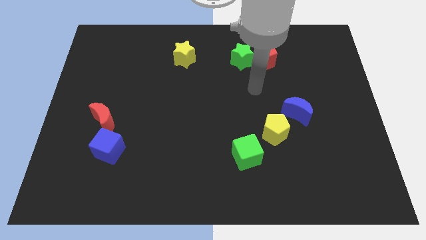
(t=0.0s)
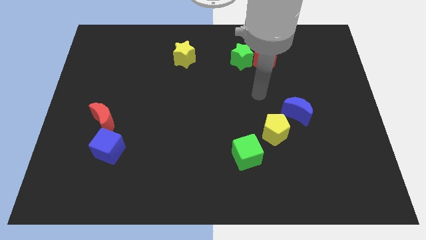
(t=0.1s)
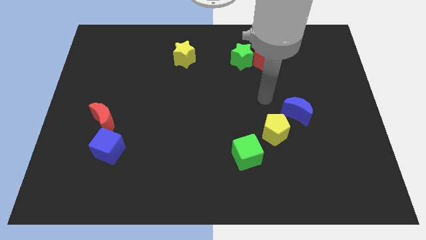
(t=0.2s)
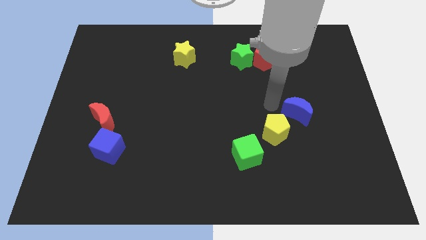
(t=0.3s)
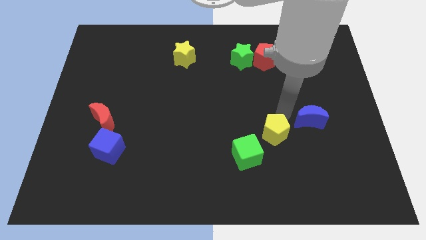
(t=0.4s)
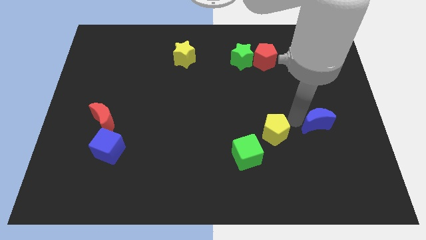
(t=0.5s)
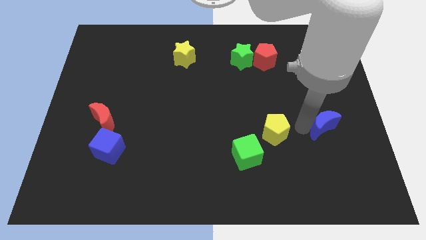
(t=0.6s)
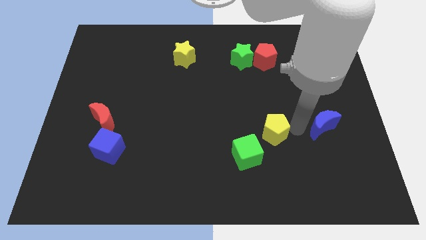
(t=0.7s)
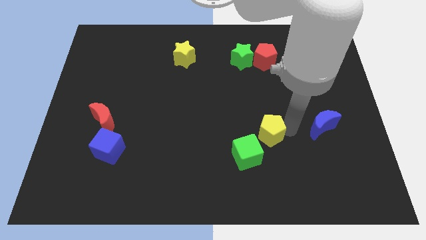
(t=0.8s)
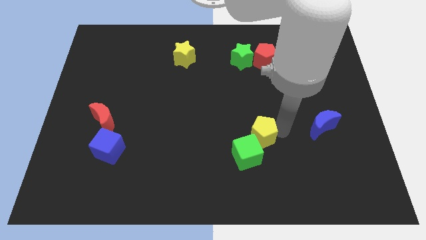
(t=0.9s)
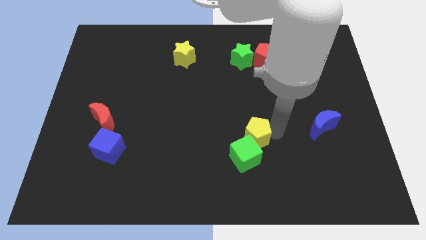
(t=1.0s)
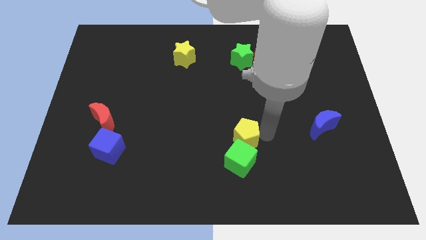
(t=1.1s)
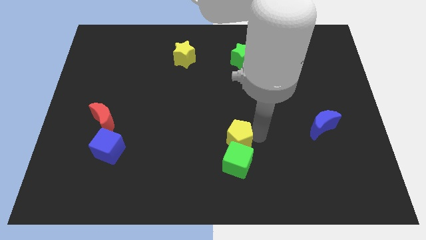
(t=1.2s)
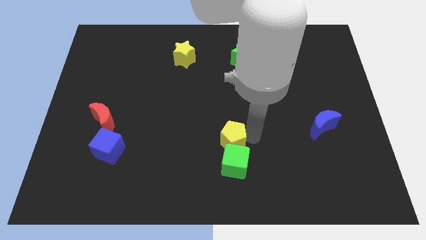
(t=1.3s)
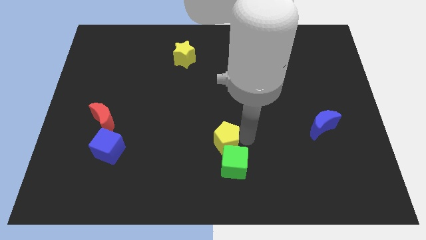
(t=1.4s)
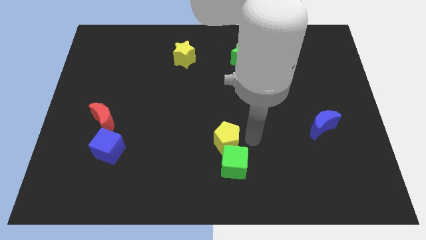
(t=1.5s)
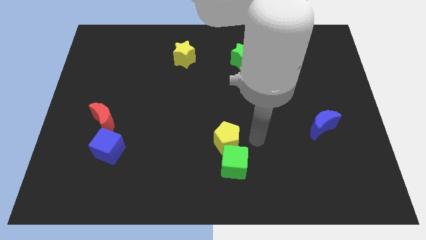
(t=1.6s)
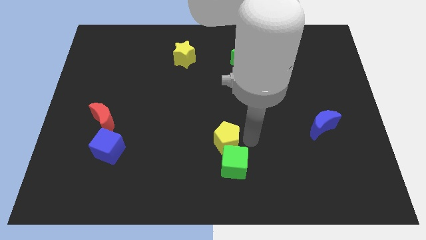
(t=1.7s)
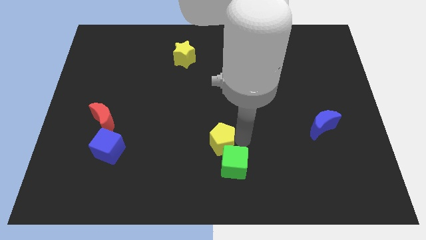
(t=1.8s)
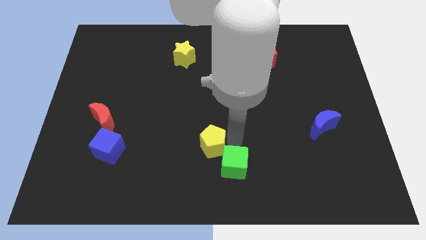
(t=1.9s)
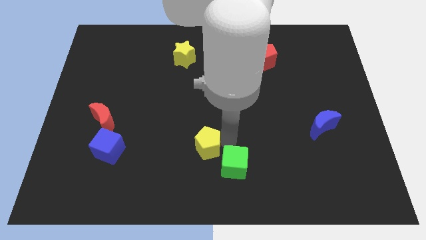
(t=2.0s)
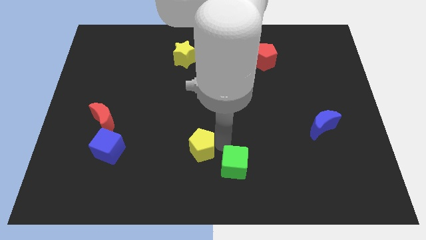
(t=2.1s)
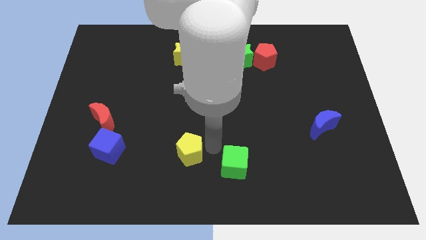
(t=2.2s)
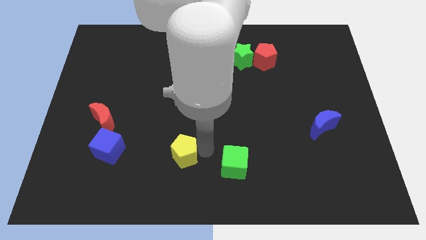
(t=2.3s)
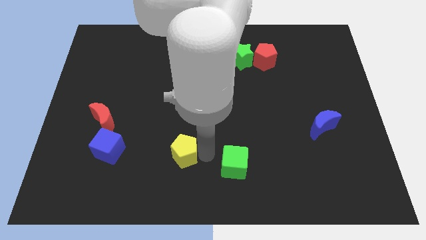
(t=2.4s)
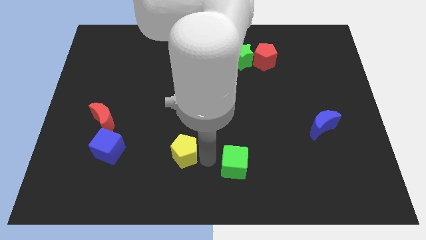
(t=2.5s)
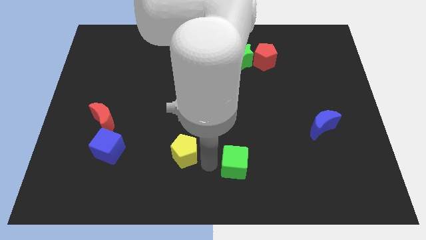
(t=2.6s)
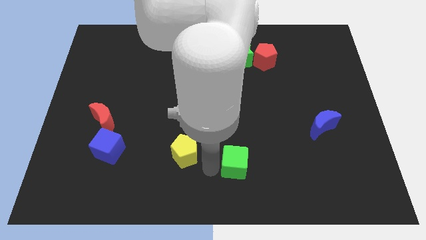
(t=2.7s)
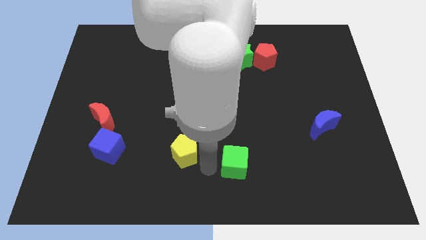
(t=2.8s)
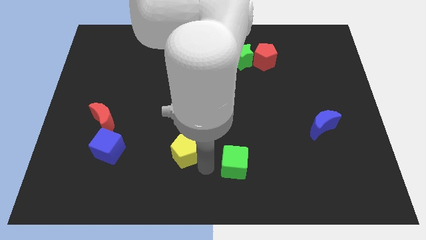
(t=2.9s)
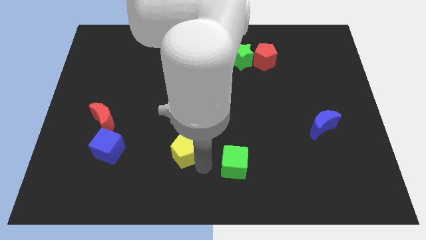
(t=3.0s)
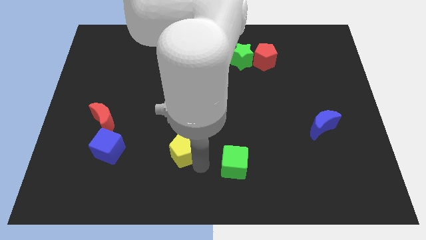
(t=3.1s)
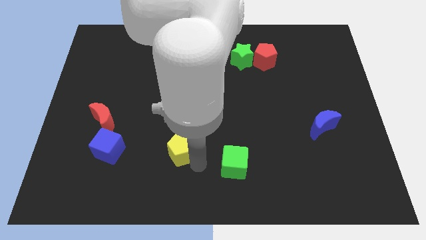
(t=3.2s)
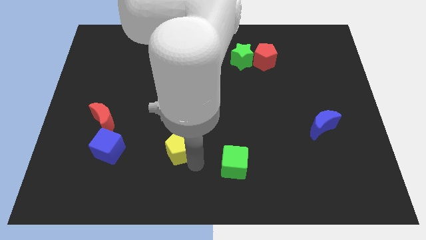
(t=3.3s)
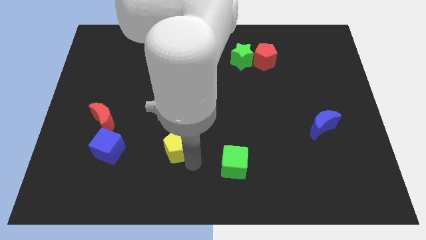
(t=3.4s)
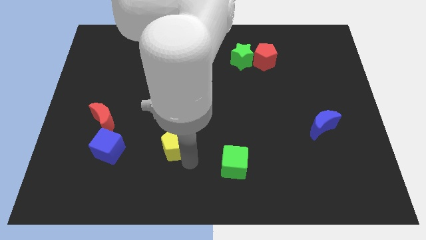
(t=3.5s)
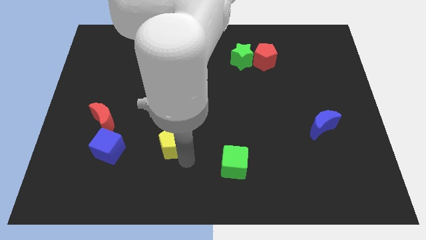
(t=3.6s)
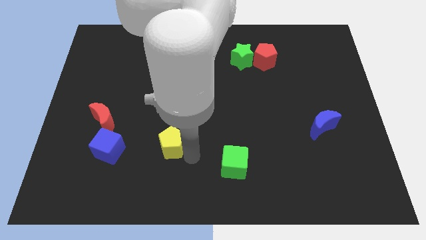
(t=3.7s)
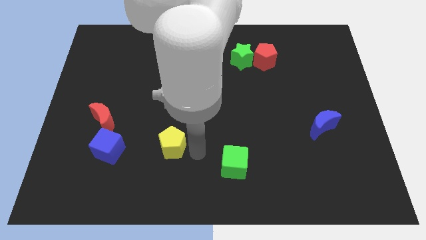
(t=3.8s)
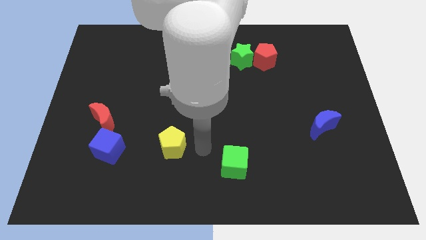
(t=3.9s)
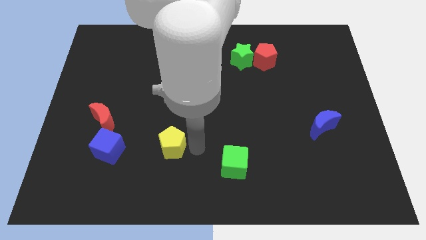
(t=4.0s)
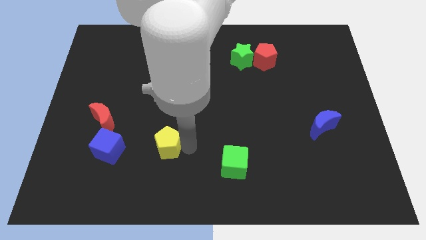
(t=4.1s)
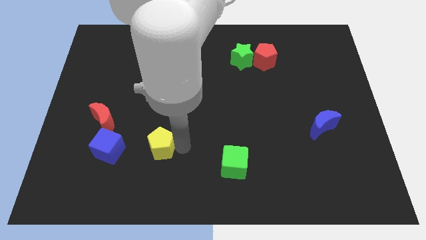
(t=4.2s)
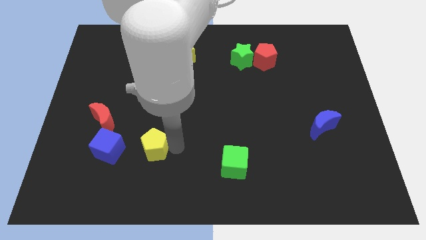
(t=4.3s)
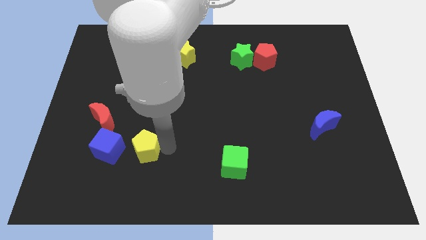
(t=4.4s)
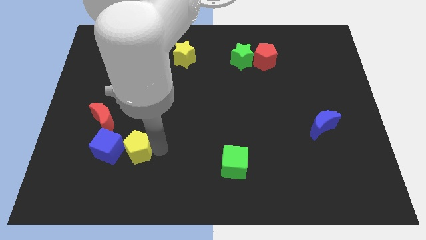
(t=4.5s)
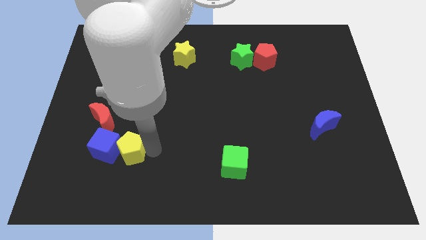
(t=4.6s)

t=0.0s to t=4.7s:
put the yellow pentagon to the blue cube

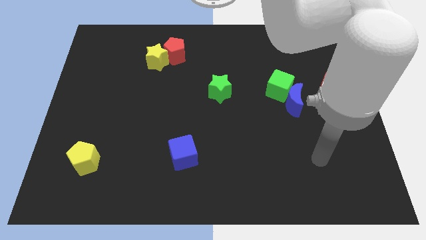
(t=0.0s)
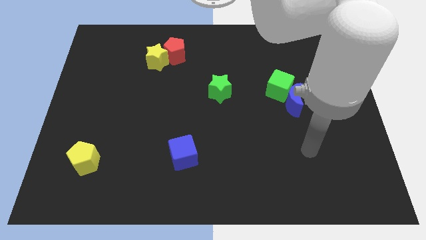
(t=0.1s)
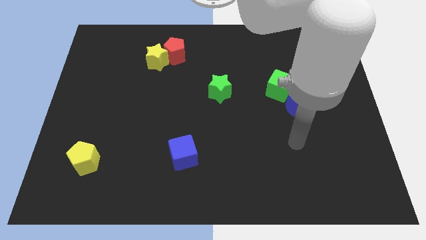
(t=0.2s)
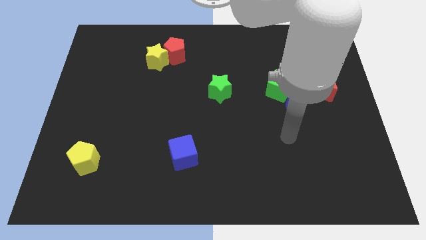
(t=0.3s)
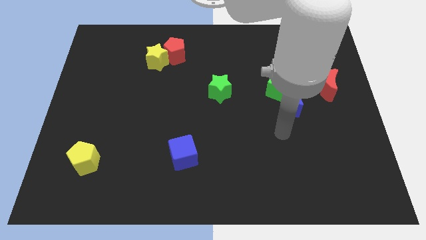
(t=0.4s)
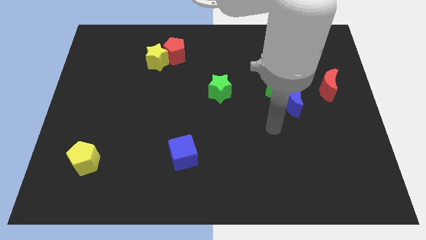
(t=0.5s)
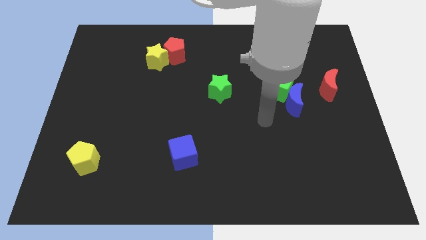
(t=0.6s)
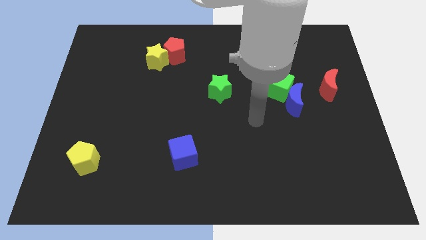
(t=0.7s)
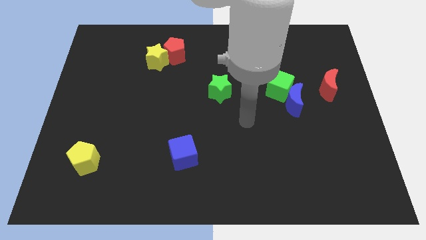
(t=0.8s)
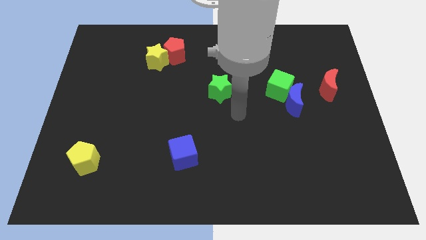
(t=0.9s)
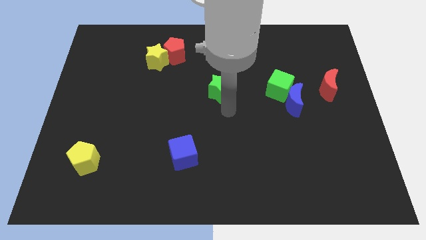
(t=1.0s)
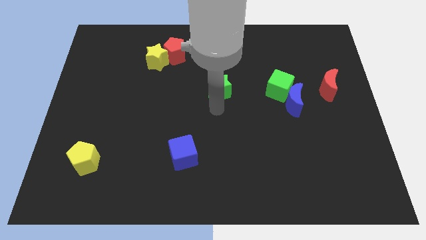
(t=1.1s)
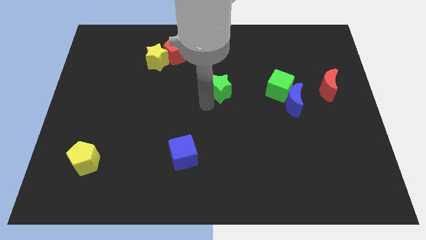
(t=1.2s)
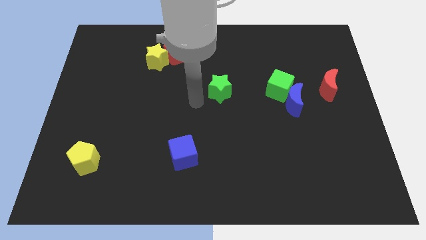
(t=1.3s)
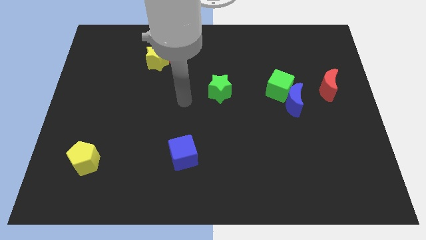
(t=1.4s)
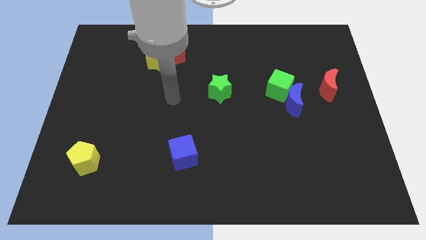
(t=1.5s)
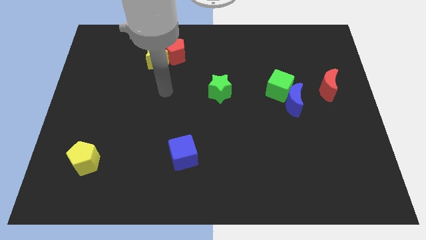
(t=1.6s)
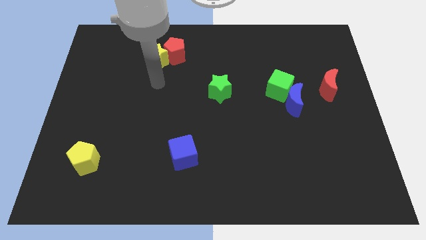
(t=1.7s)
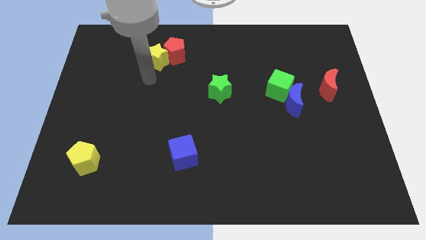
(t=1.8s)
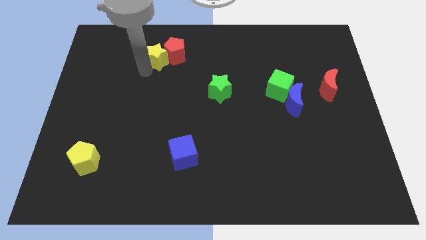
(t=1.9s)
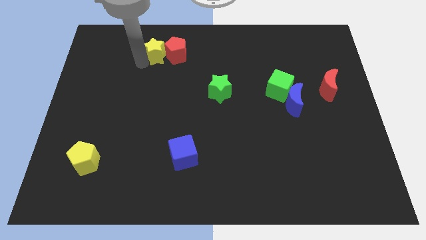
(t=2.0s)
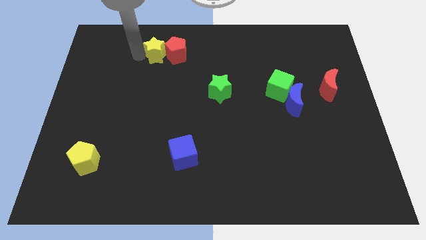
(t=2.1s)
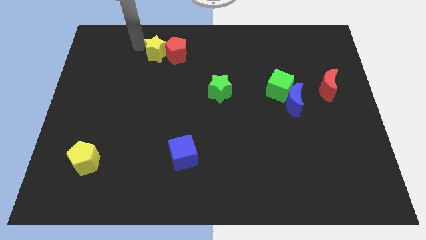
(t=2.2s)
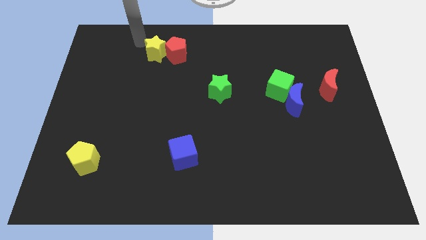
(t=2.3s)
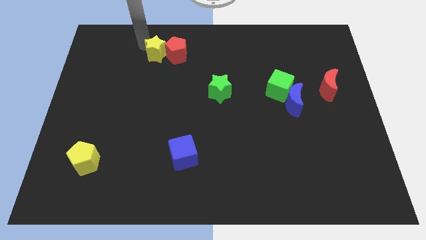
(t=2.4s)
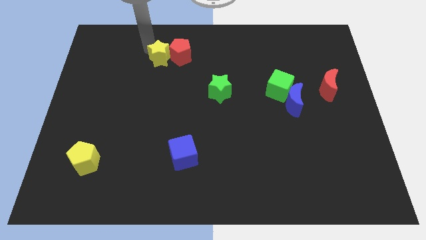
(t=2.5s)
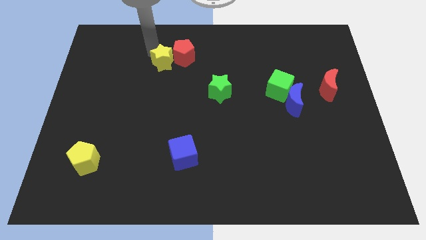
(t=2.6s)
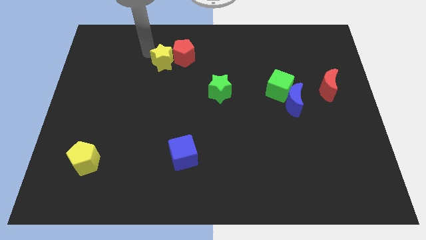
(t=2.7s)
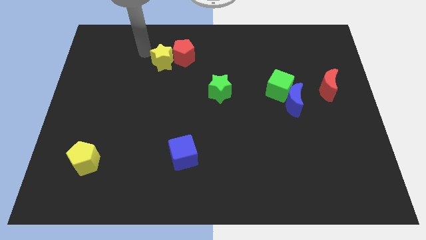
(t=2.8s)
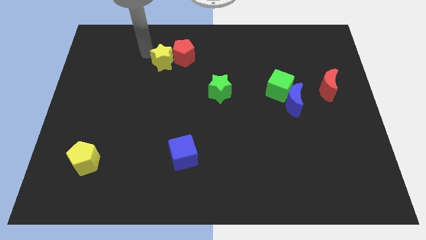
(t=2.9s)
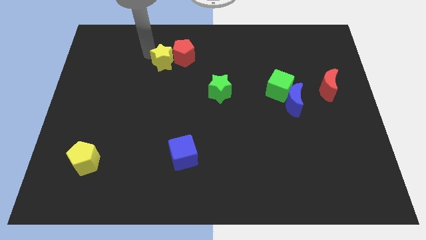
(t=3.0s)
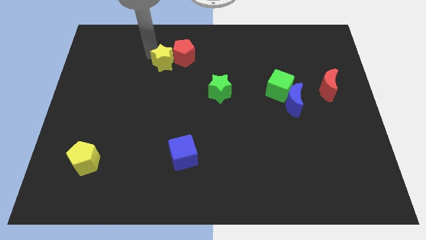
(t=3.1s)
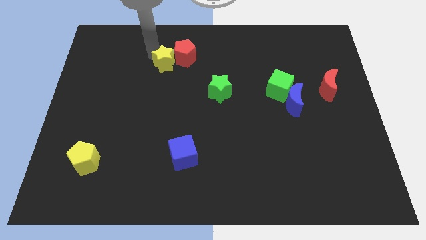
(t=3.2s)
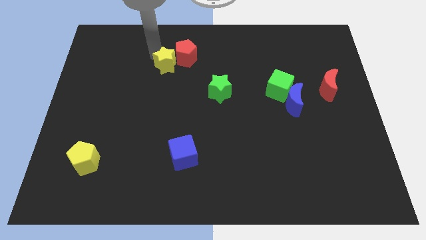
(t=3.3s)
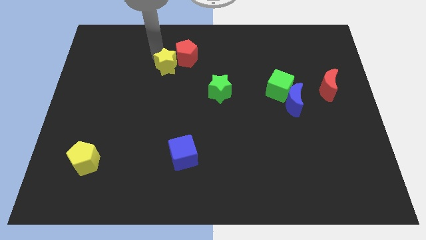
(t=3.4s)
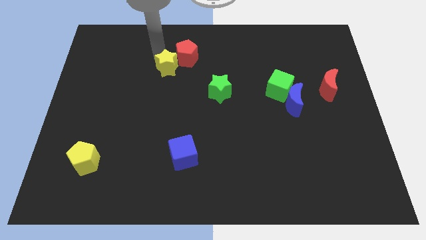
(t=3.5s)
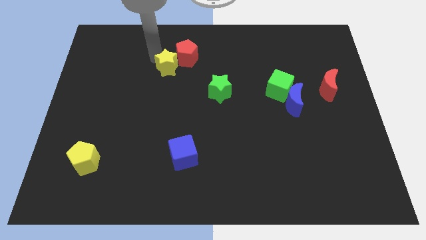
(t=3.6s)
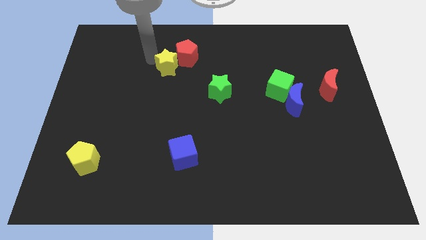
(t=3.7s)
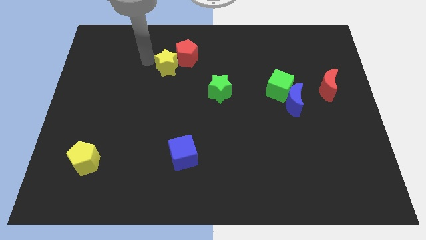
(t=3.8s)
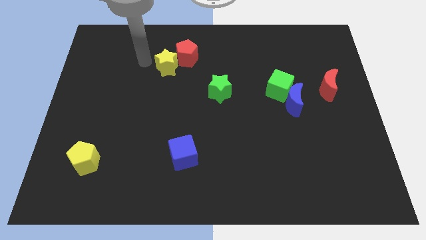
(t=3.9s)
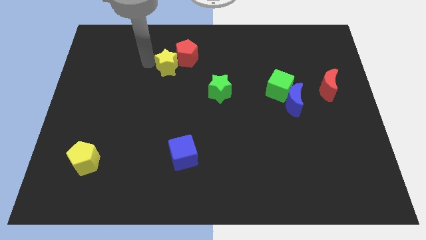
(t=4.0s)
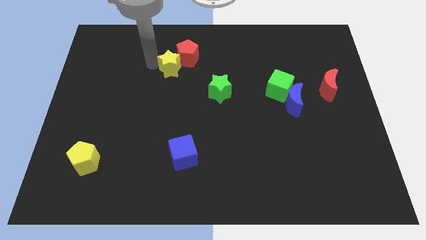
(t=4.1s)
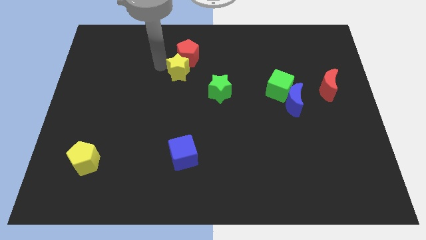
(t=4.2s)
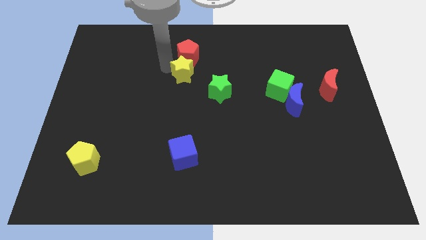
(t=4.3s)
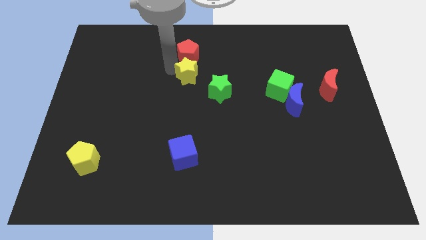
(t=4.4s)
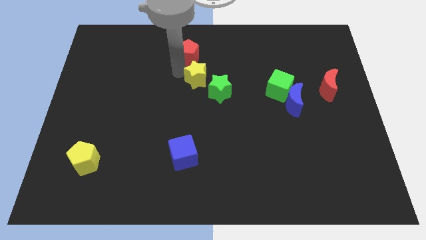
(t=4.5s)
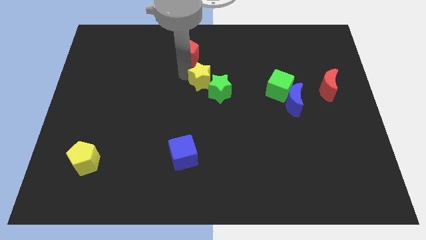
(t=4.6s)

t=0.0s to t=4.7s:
push the yellow star to the green star
